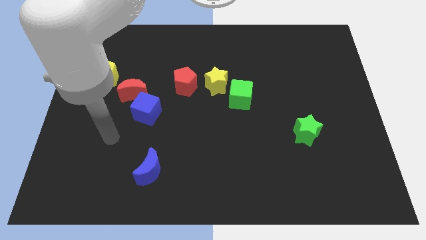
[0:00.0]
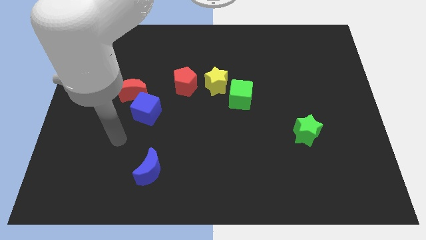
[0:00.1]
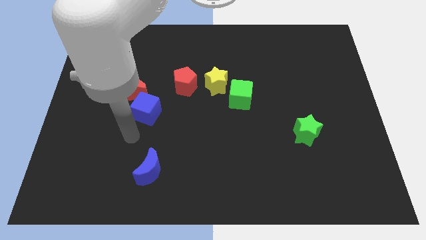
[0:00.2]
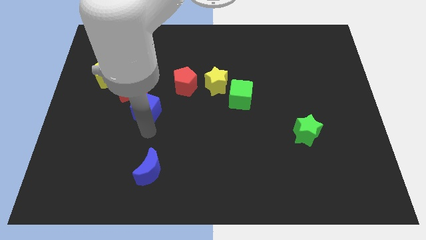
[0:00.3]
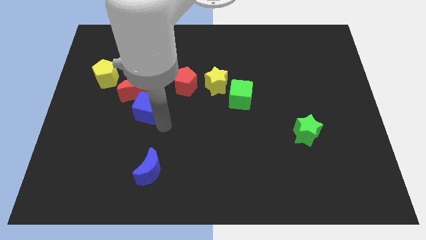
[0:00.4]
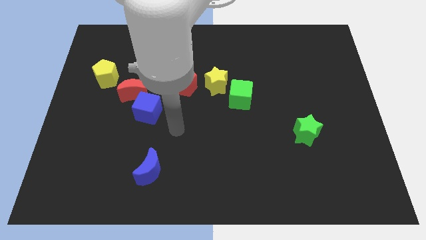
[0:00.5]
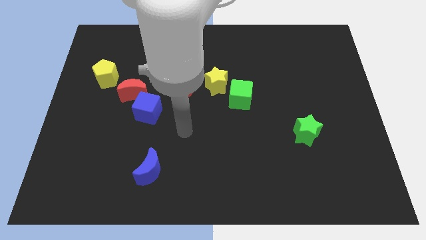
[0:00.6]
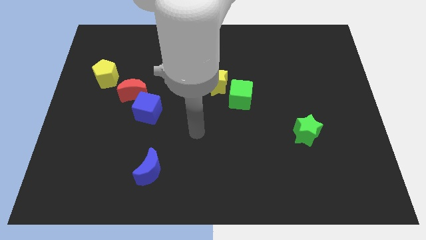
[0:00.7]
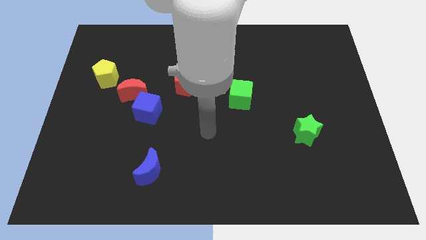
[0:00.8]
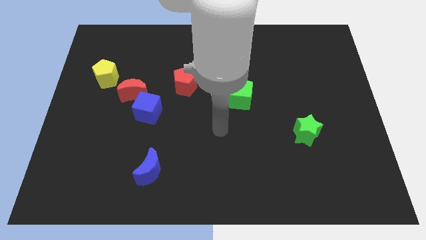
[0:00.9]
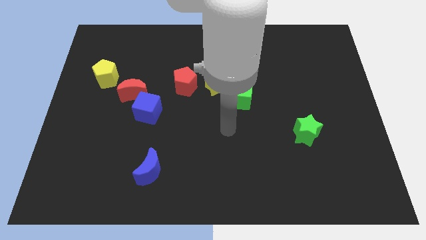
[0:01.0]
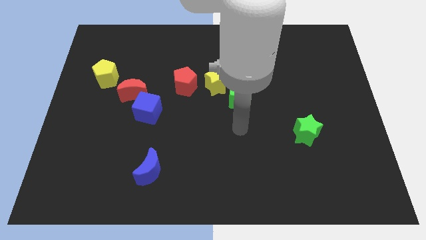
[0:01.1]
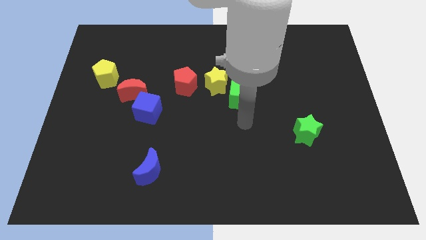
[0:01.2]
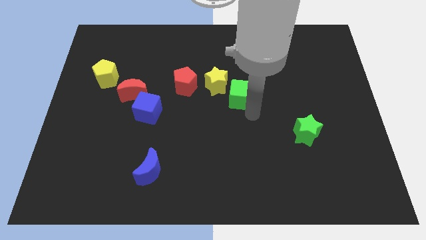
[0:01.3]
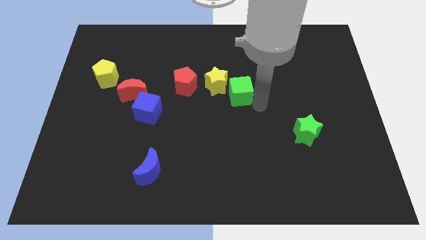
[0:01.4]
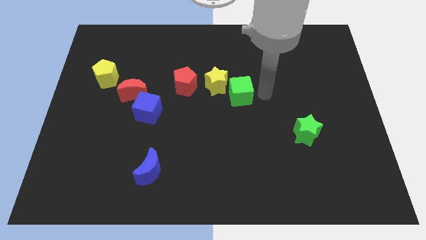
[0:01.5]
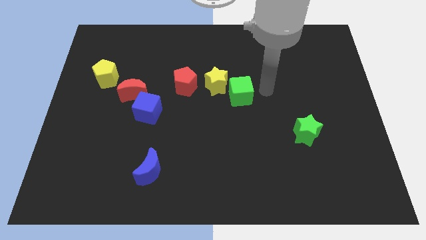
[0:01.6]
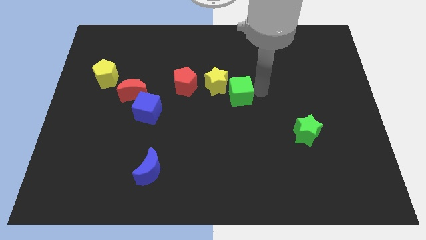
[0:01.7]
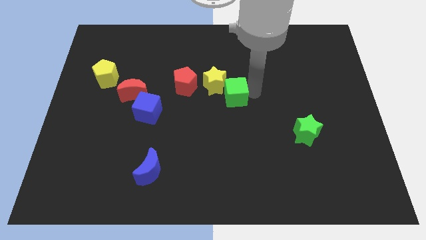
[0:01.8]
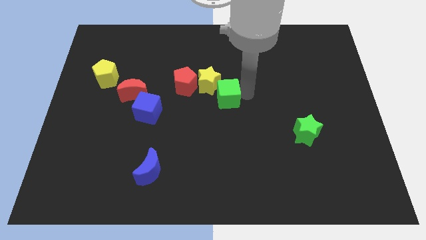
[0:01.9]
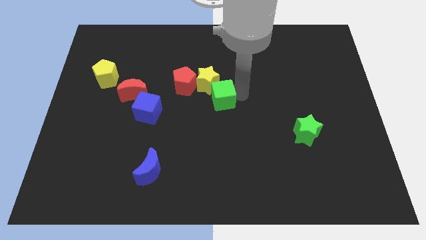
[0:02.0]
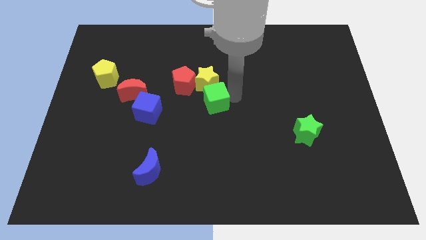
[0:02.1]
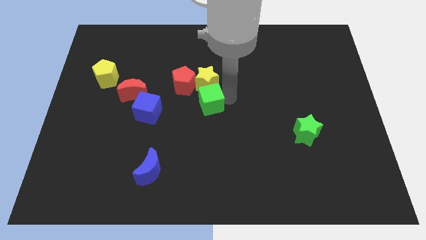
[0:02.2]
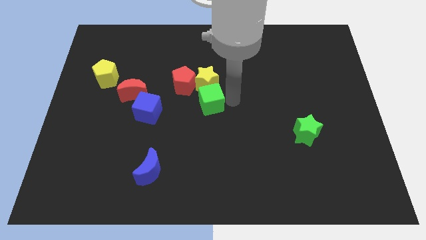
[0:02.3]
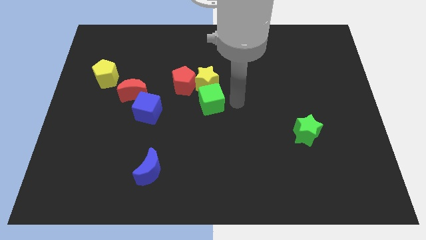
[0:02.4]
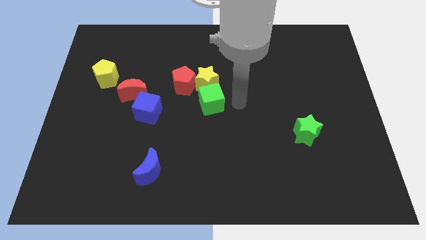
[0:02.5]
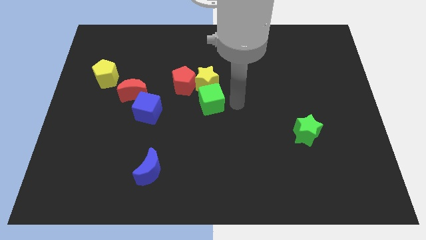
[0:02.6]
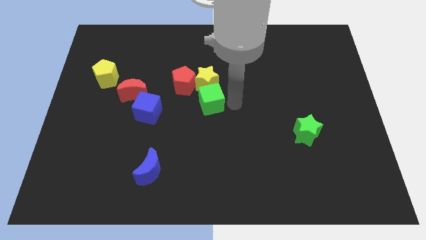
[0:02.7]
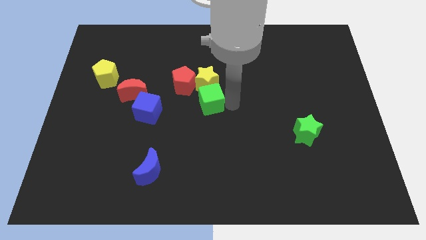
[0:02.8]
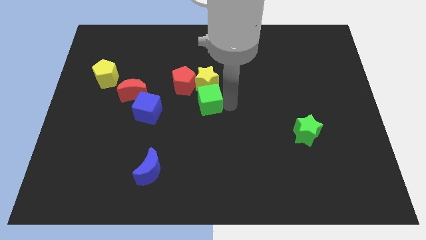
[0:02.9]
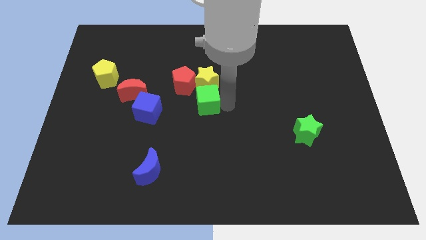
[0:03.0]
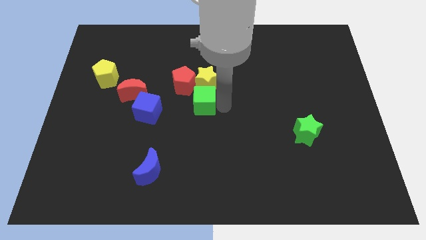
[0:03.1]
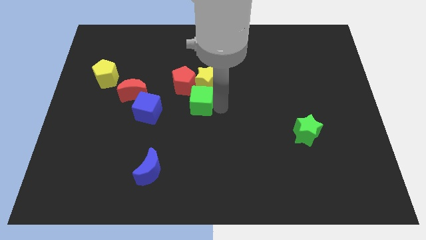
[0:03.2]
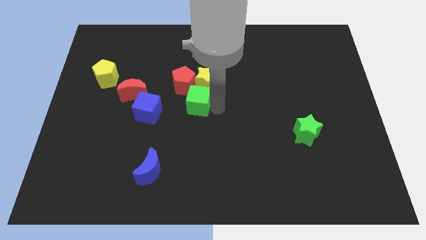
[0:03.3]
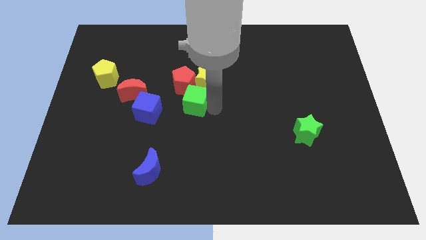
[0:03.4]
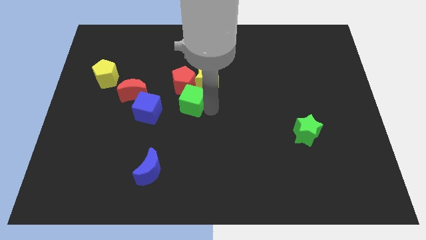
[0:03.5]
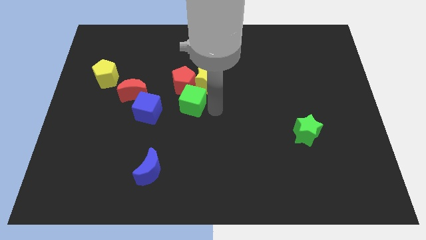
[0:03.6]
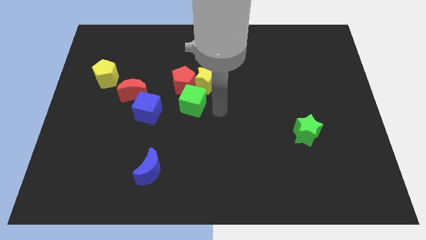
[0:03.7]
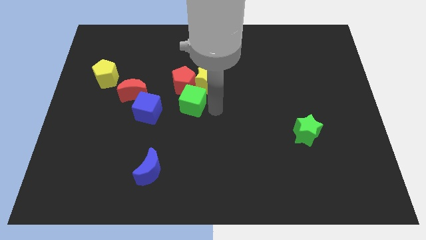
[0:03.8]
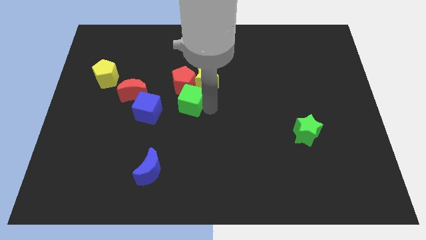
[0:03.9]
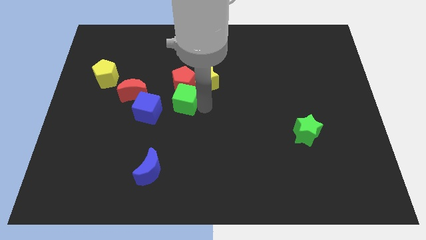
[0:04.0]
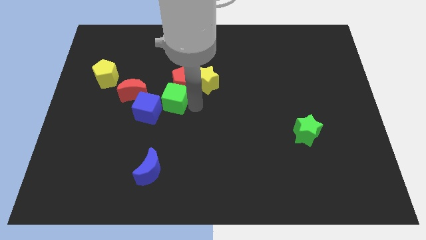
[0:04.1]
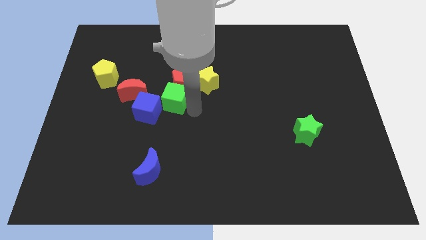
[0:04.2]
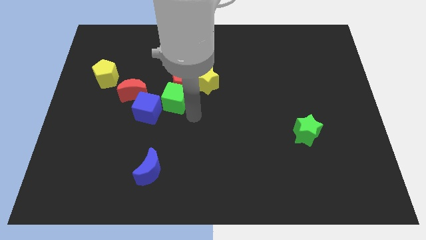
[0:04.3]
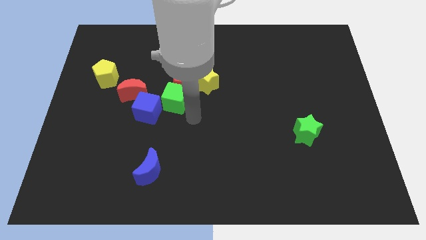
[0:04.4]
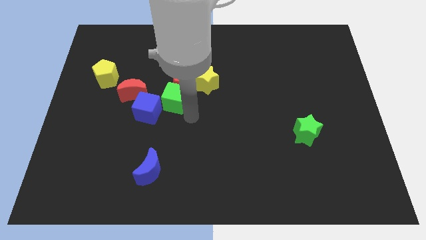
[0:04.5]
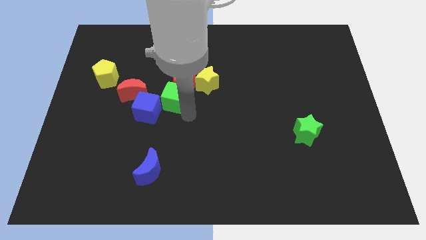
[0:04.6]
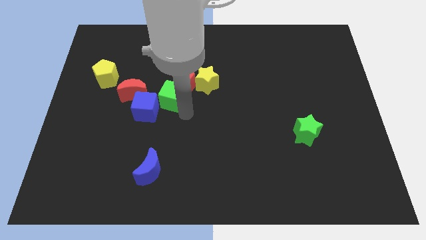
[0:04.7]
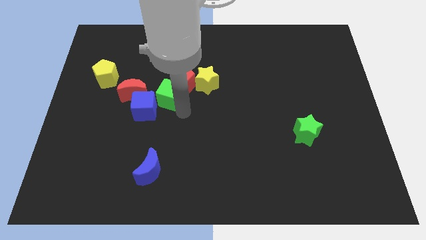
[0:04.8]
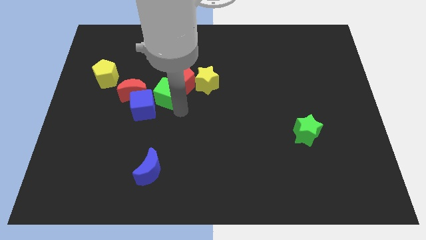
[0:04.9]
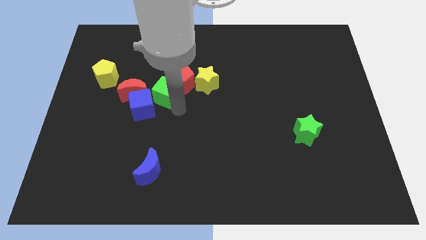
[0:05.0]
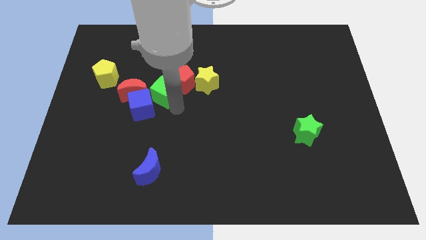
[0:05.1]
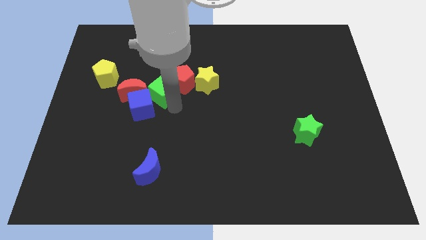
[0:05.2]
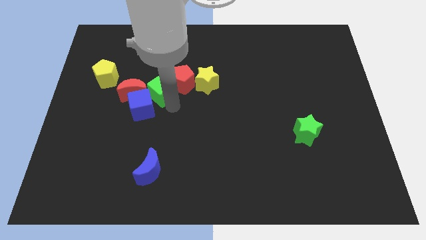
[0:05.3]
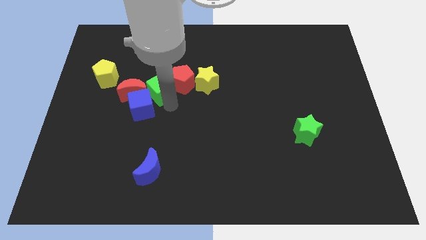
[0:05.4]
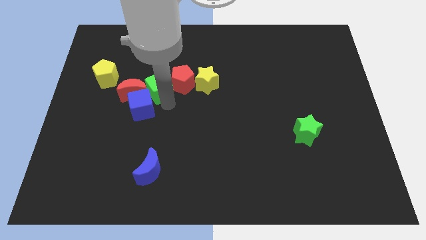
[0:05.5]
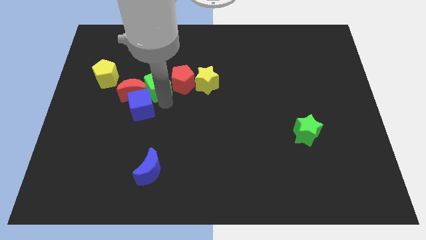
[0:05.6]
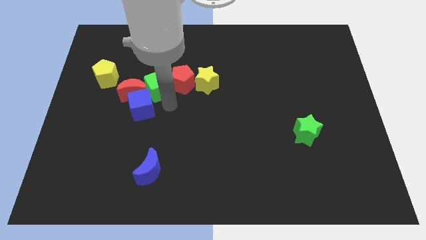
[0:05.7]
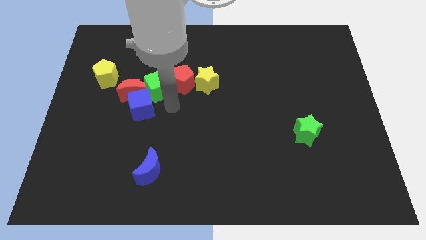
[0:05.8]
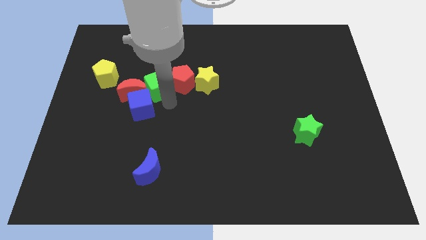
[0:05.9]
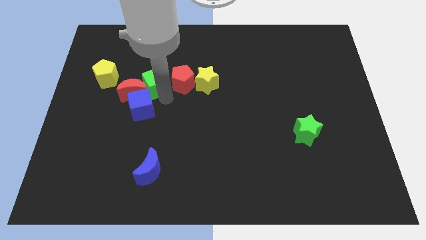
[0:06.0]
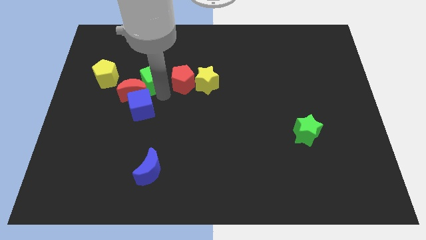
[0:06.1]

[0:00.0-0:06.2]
move the green cube to the top of the red moon

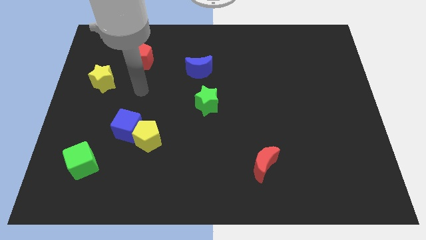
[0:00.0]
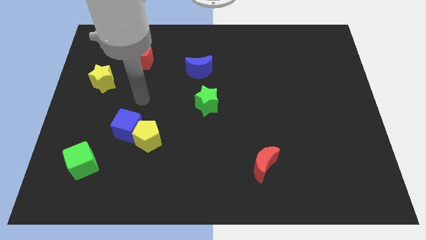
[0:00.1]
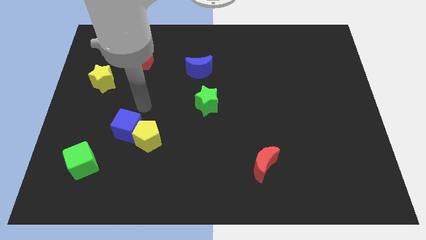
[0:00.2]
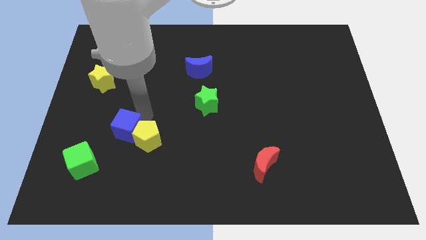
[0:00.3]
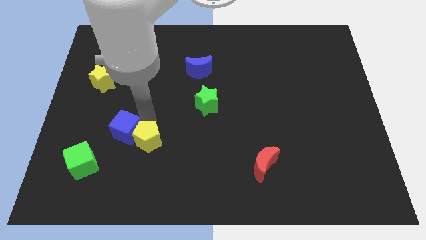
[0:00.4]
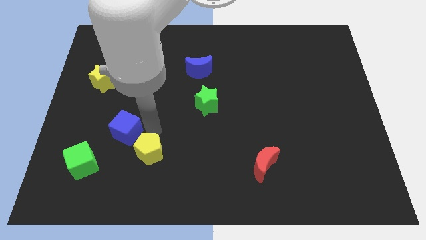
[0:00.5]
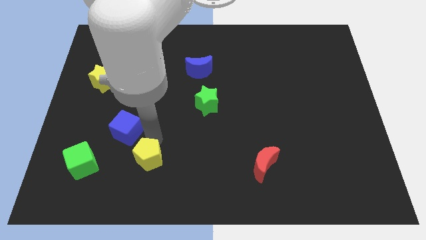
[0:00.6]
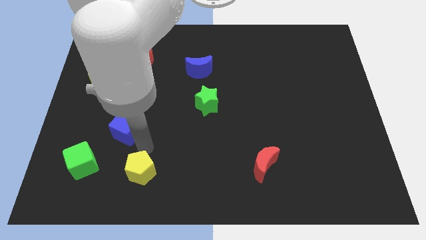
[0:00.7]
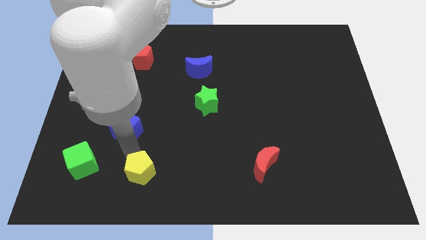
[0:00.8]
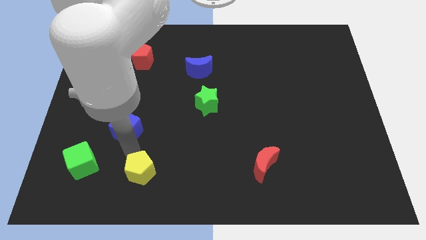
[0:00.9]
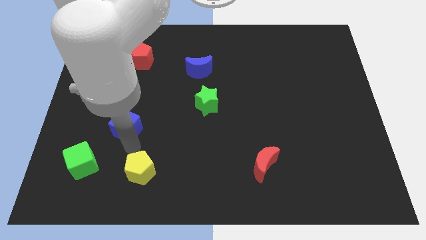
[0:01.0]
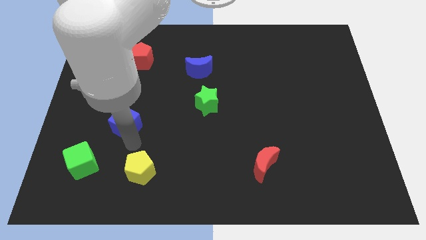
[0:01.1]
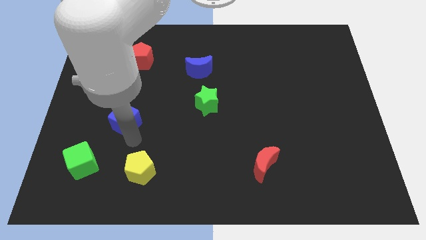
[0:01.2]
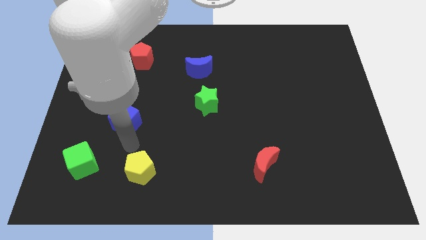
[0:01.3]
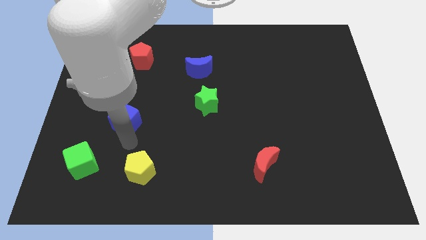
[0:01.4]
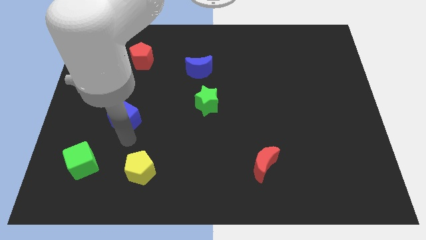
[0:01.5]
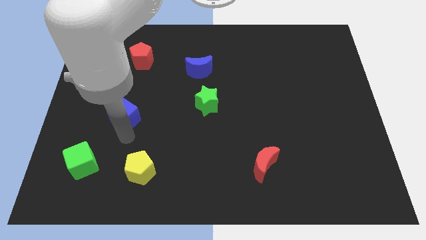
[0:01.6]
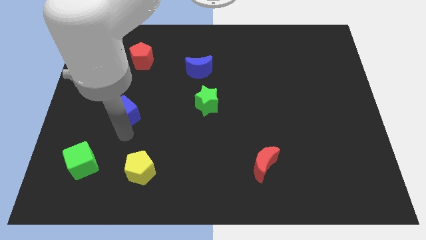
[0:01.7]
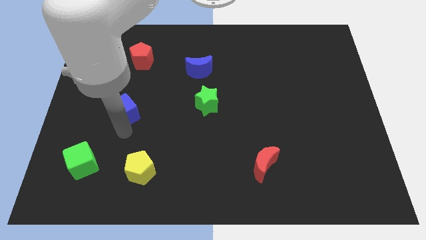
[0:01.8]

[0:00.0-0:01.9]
push the blue cube to the bottom right of the yellow star
